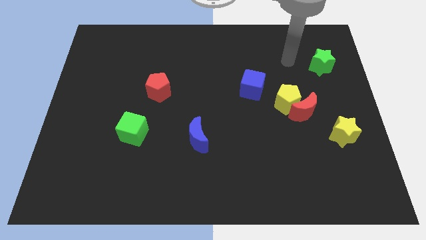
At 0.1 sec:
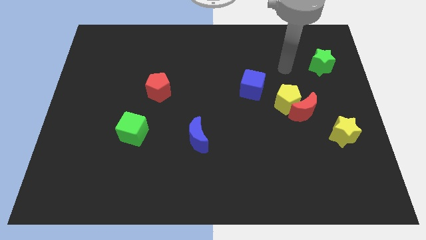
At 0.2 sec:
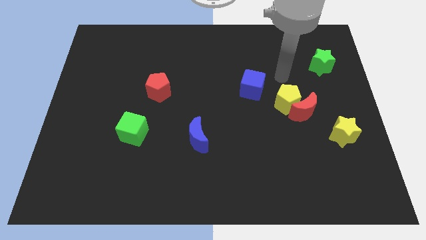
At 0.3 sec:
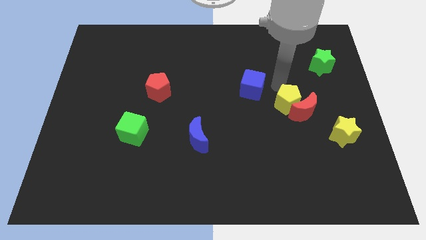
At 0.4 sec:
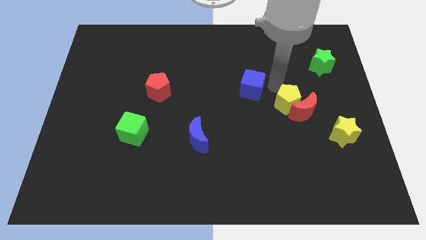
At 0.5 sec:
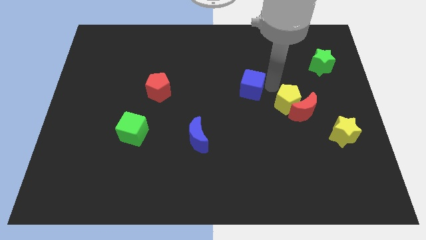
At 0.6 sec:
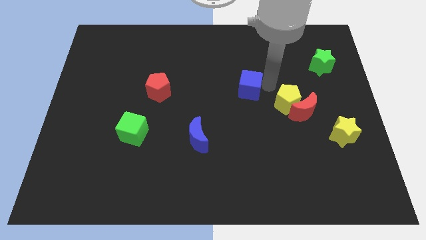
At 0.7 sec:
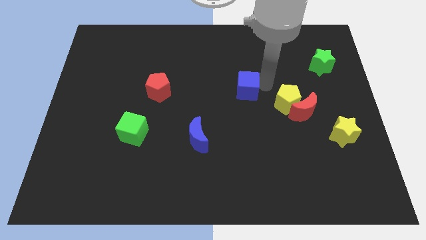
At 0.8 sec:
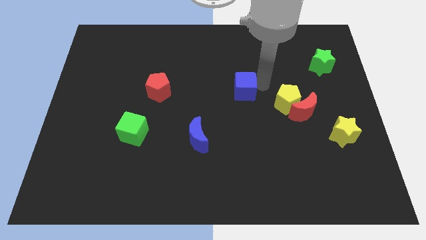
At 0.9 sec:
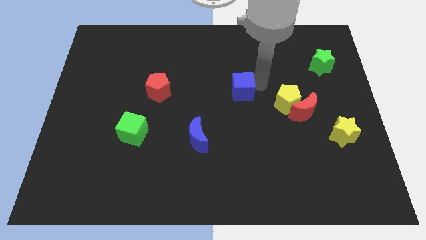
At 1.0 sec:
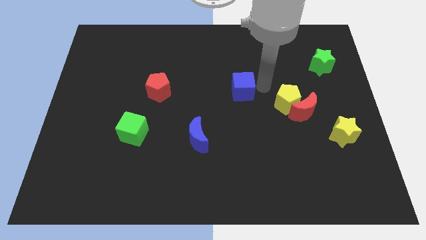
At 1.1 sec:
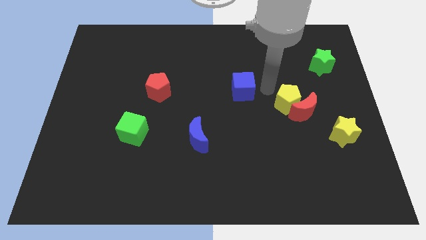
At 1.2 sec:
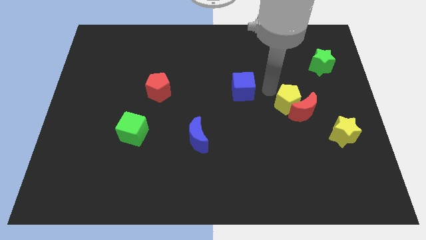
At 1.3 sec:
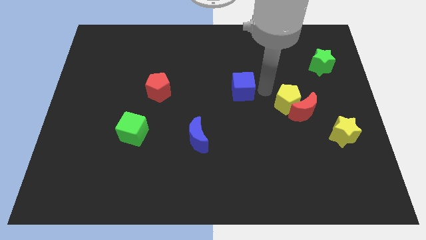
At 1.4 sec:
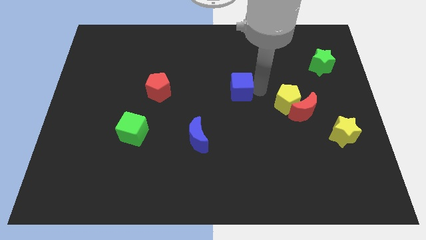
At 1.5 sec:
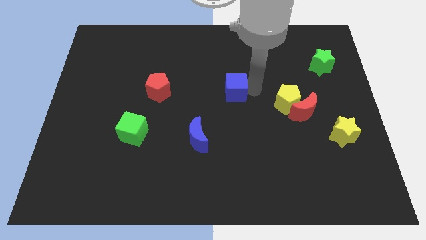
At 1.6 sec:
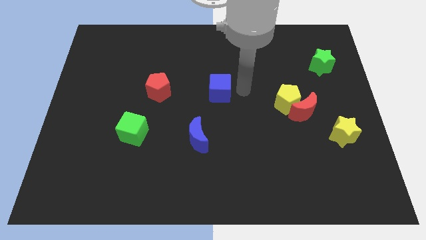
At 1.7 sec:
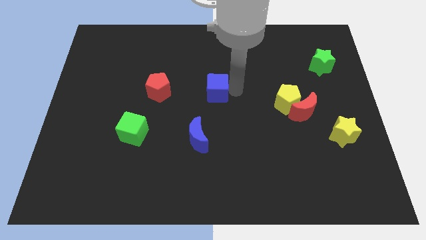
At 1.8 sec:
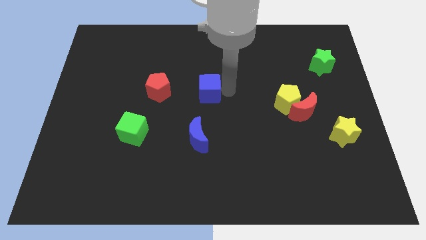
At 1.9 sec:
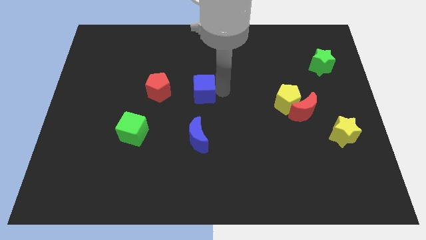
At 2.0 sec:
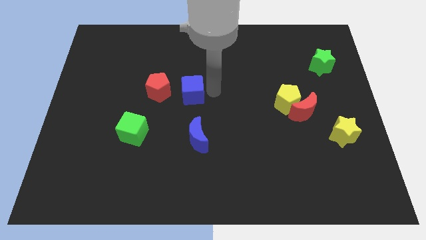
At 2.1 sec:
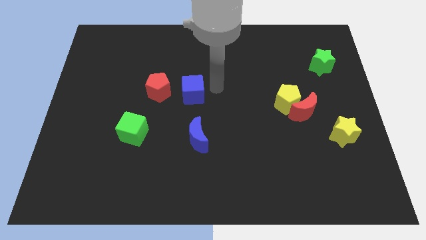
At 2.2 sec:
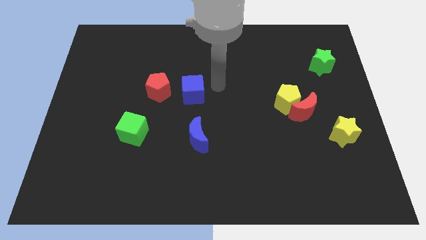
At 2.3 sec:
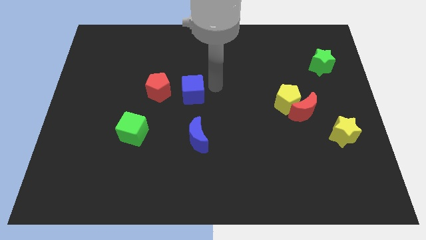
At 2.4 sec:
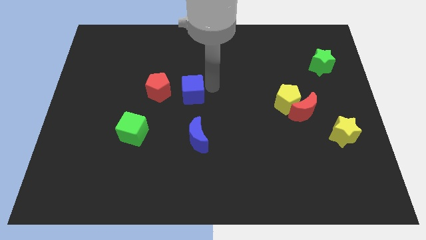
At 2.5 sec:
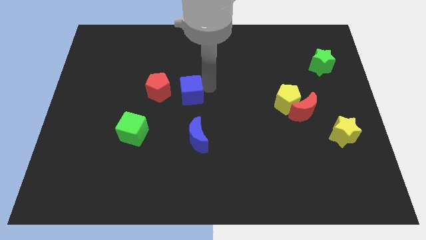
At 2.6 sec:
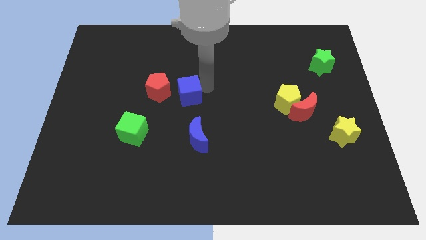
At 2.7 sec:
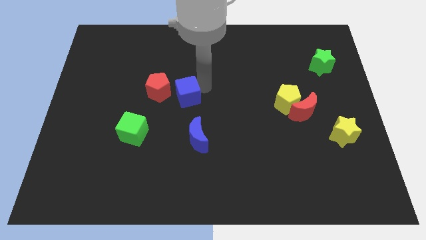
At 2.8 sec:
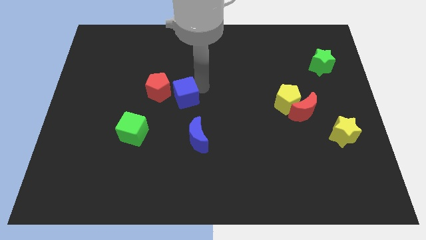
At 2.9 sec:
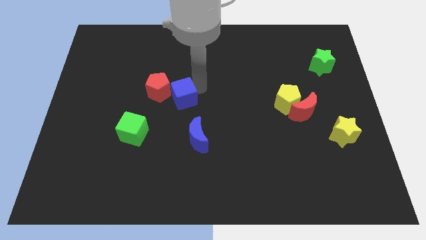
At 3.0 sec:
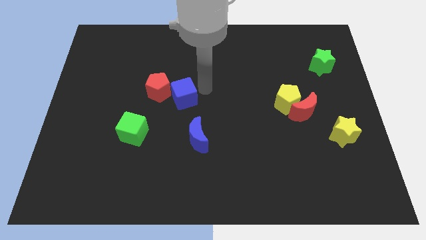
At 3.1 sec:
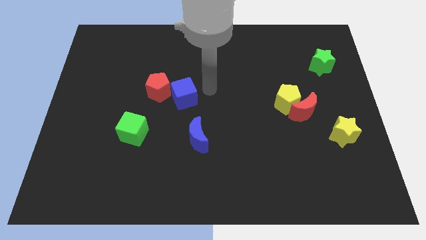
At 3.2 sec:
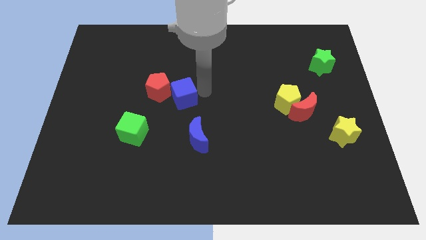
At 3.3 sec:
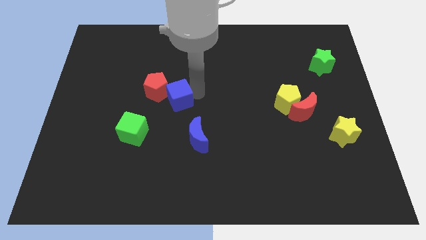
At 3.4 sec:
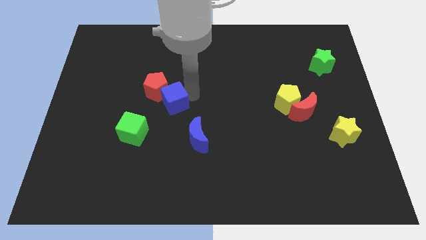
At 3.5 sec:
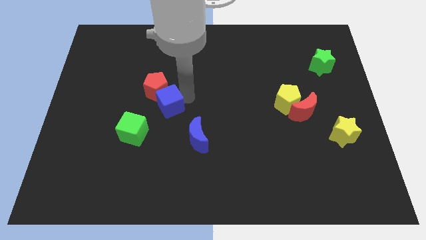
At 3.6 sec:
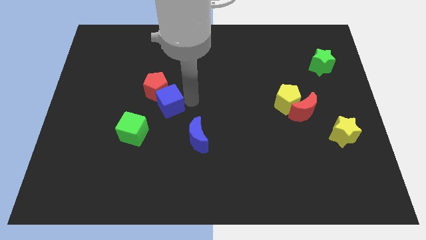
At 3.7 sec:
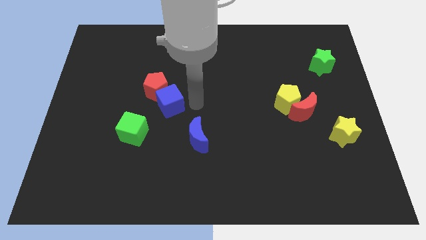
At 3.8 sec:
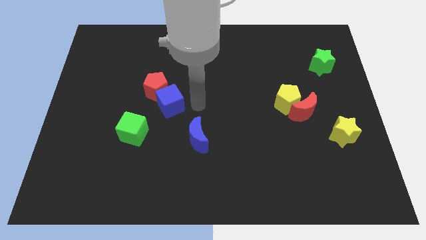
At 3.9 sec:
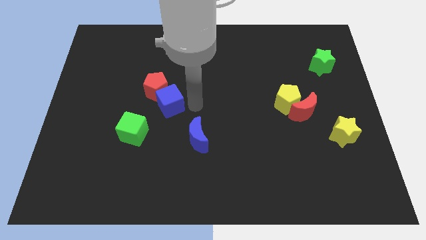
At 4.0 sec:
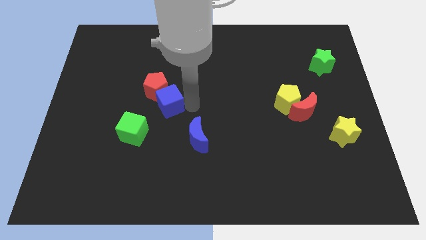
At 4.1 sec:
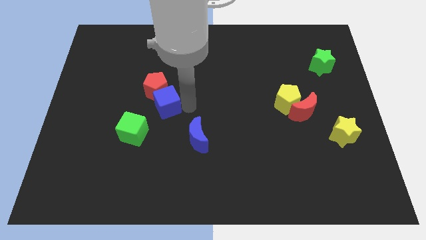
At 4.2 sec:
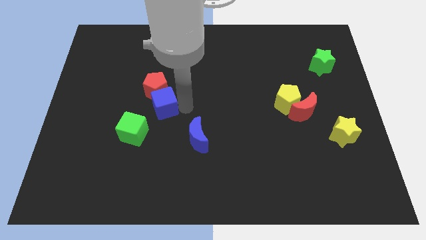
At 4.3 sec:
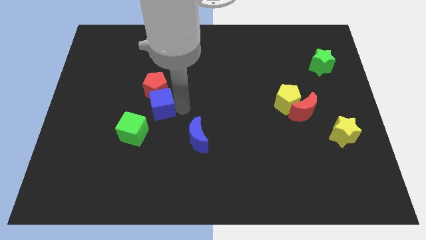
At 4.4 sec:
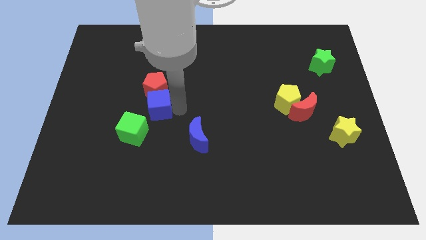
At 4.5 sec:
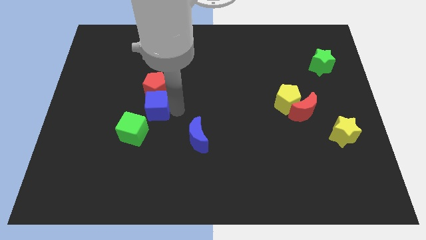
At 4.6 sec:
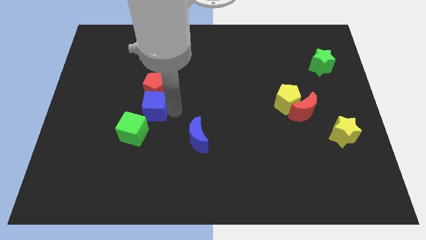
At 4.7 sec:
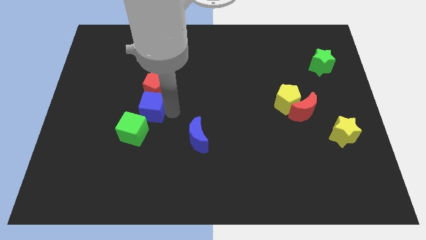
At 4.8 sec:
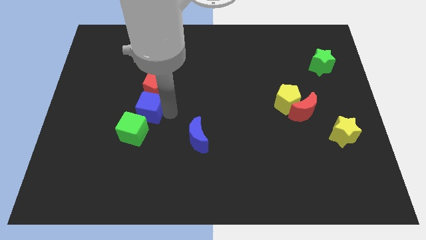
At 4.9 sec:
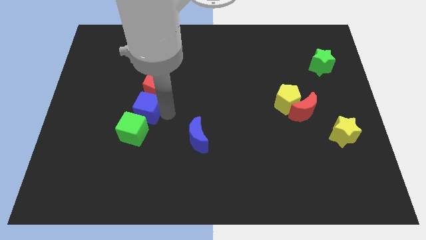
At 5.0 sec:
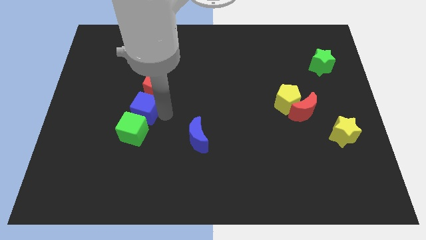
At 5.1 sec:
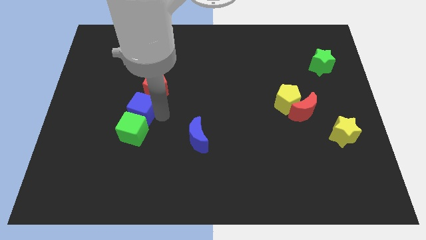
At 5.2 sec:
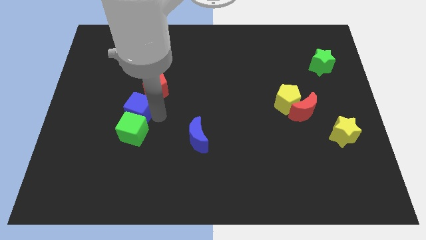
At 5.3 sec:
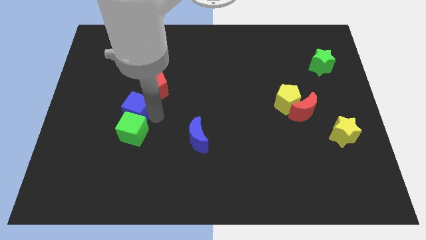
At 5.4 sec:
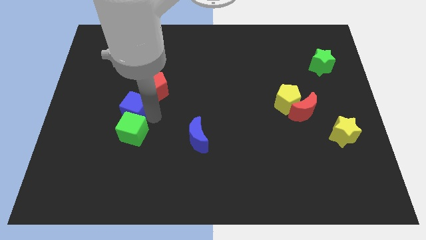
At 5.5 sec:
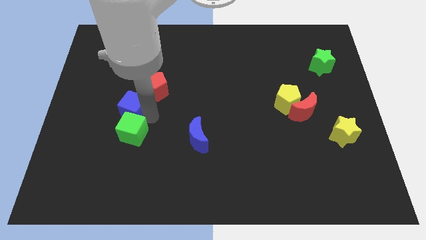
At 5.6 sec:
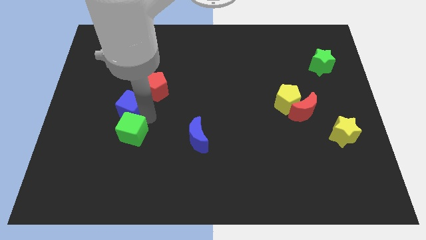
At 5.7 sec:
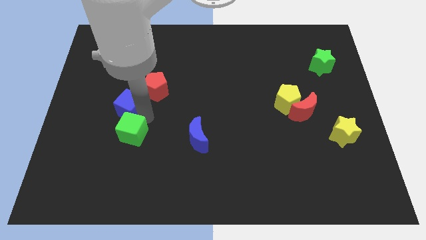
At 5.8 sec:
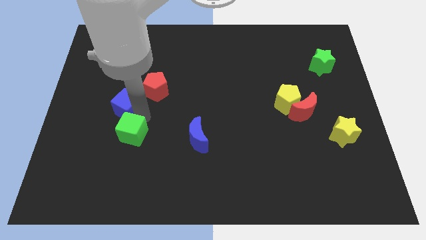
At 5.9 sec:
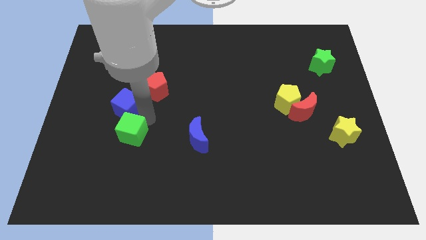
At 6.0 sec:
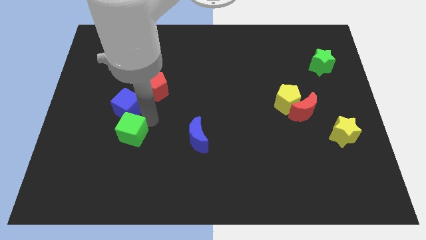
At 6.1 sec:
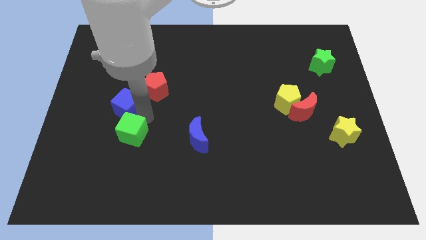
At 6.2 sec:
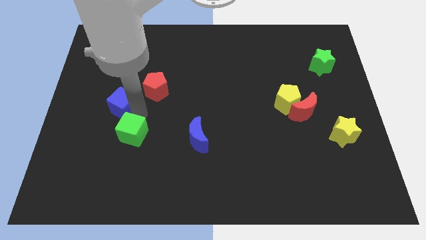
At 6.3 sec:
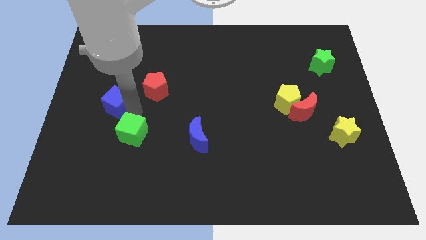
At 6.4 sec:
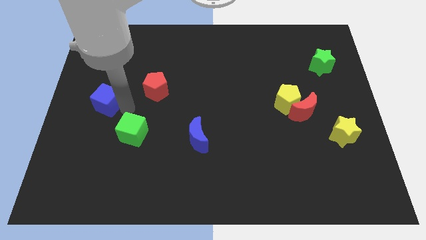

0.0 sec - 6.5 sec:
put the blue cube to the left side
